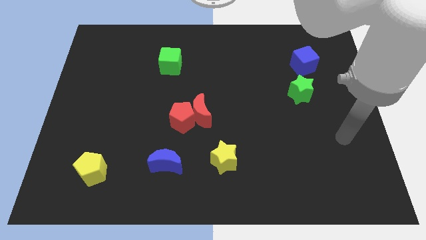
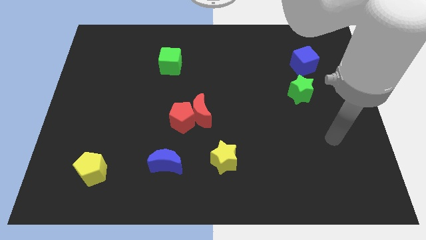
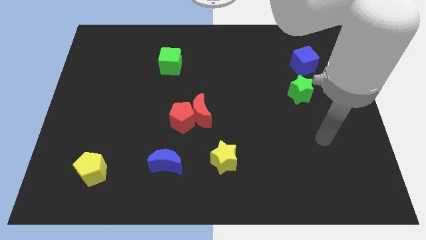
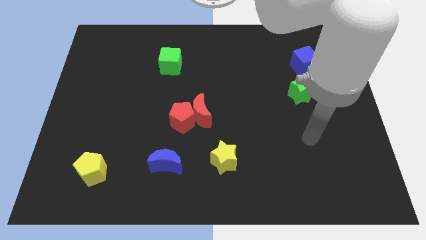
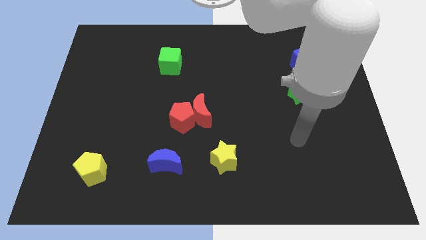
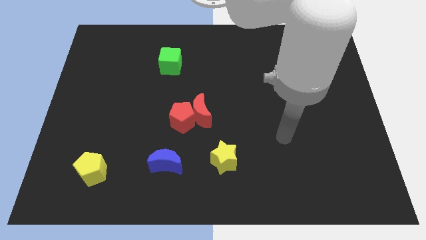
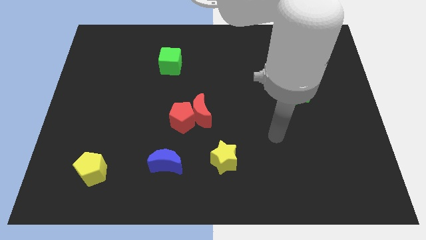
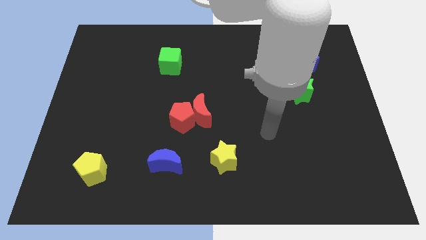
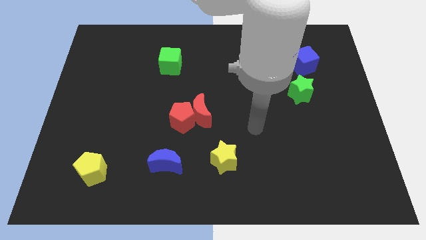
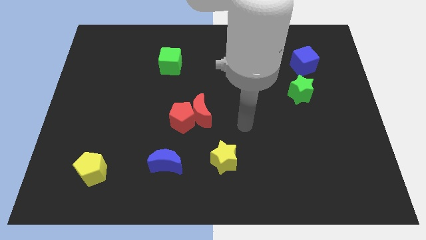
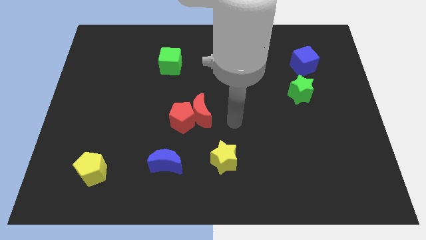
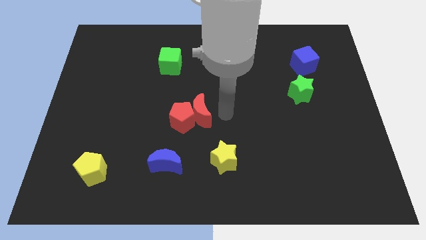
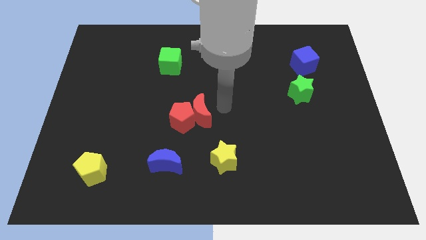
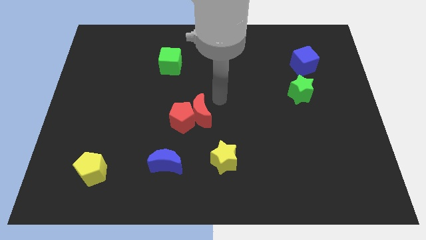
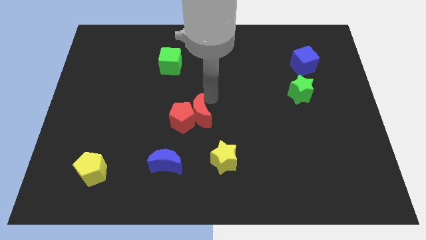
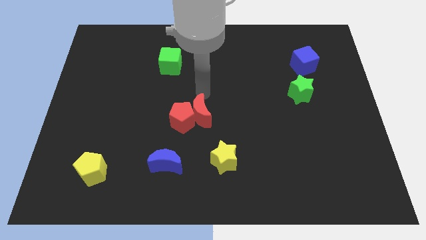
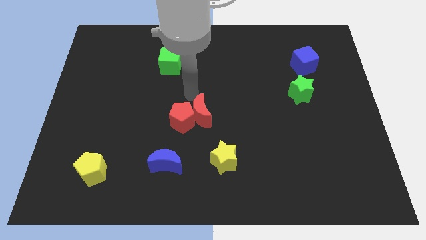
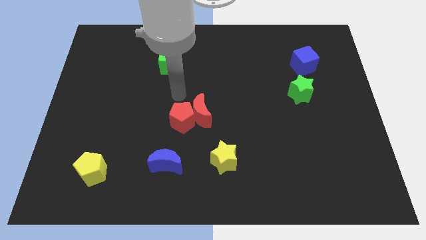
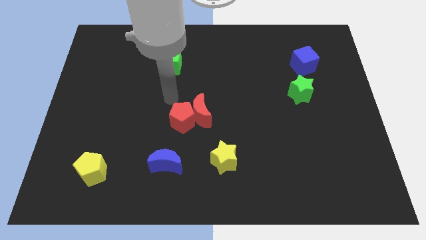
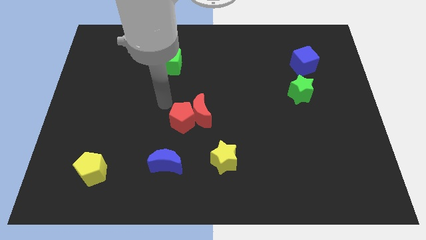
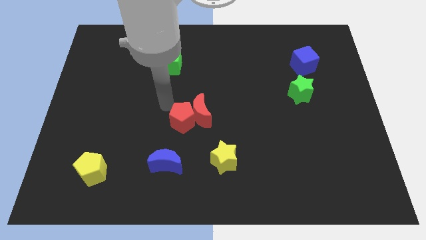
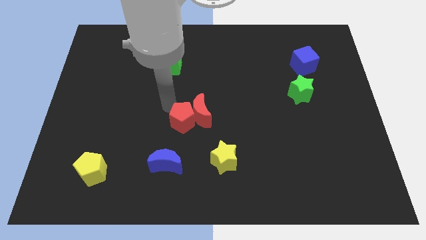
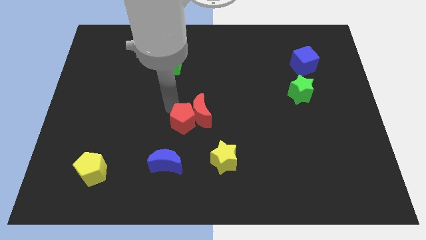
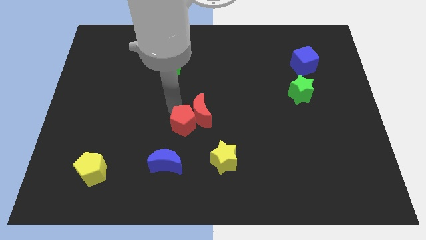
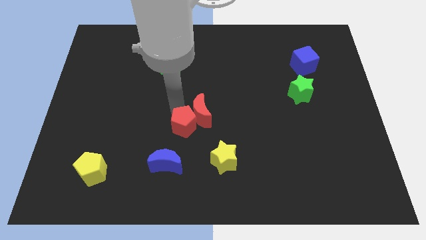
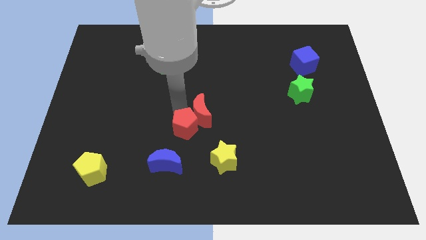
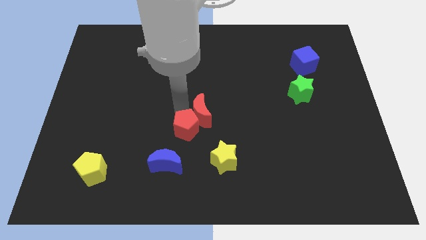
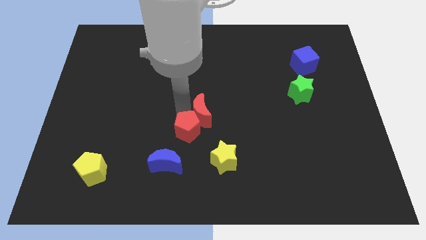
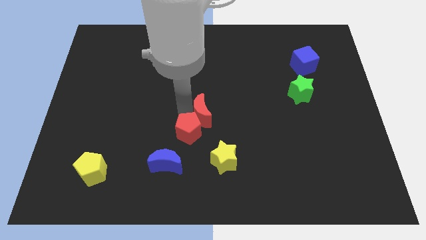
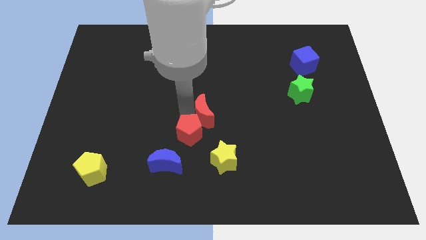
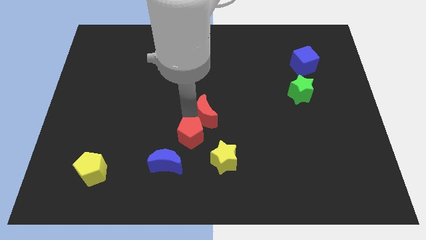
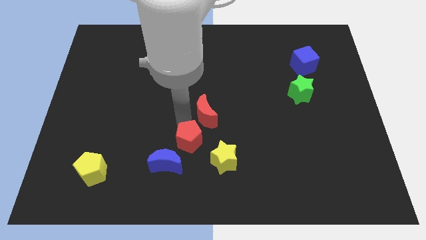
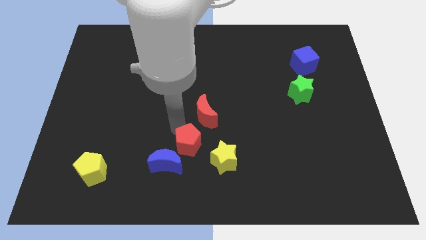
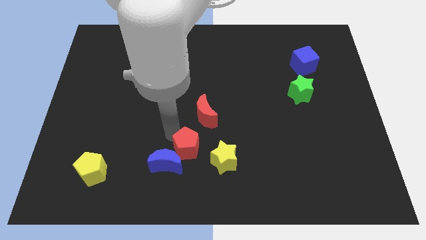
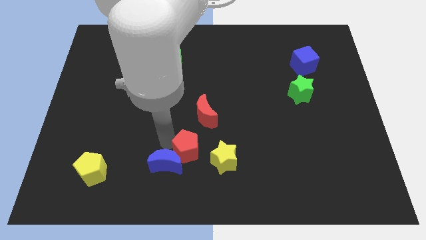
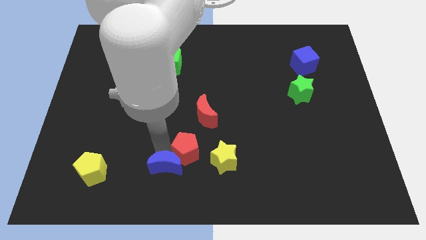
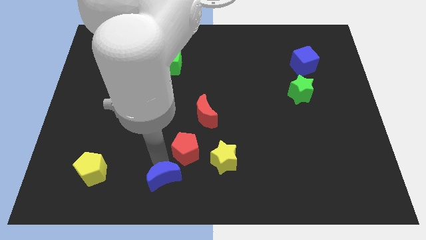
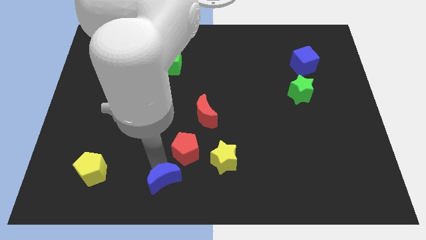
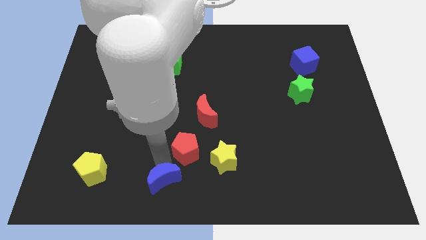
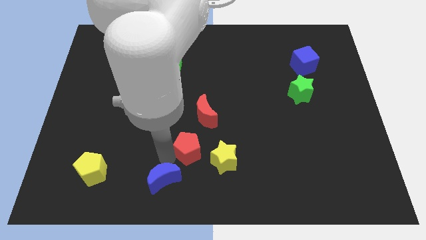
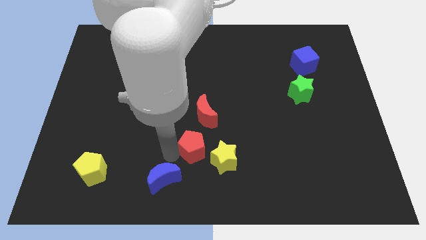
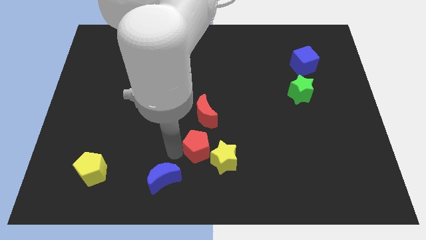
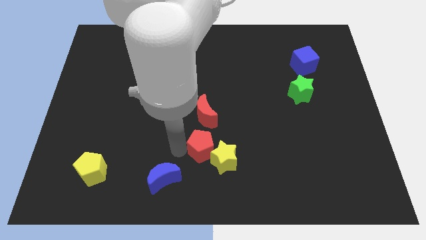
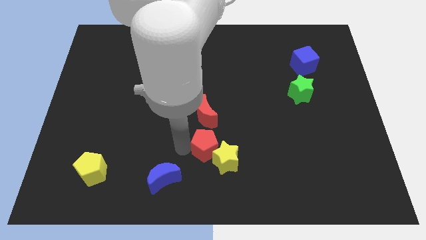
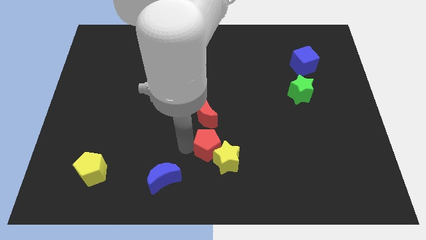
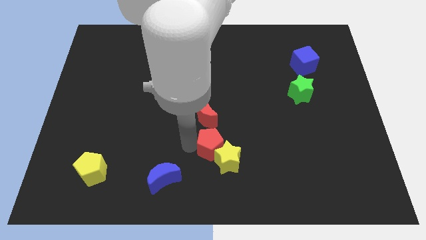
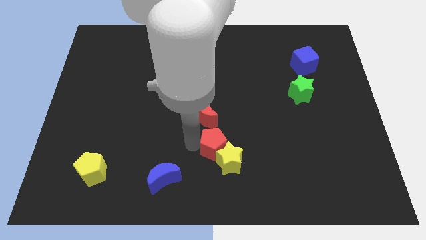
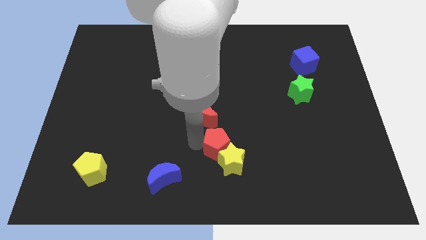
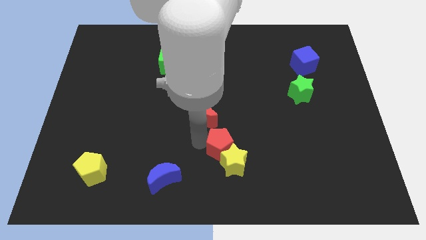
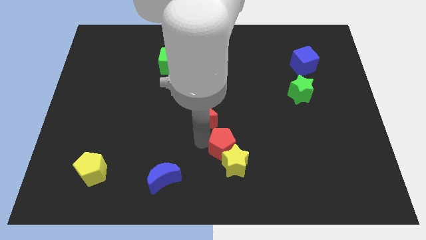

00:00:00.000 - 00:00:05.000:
slide the red pentagon right a bit

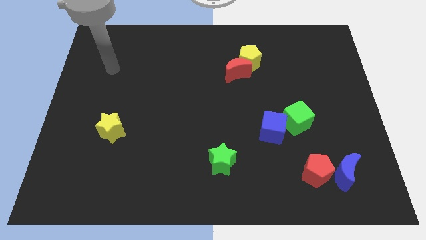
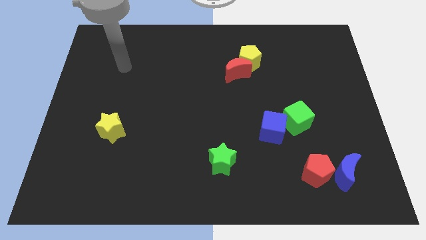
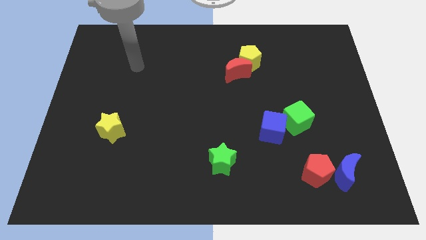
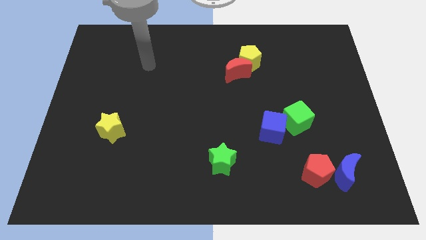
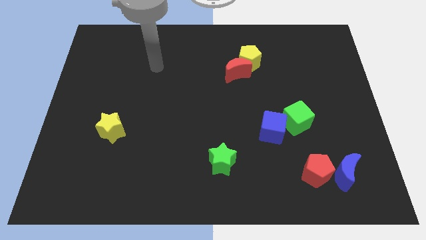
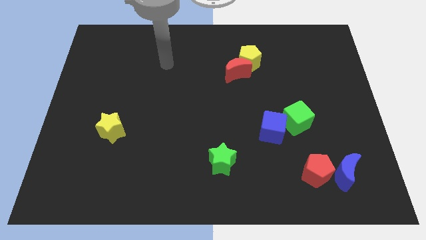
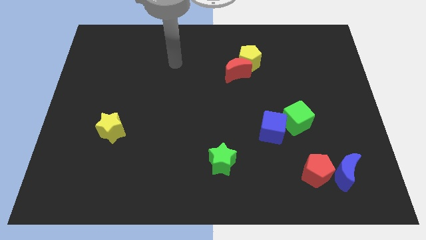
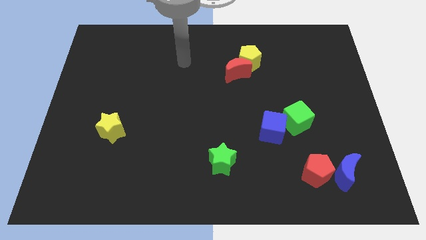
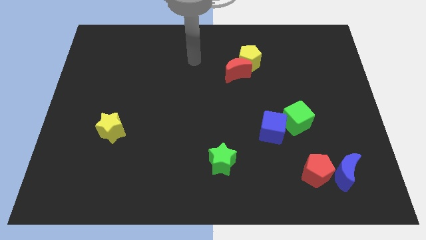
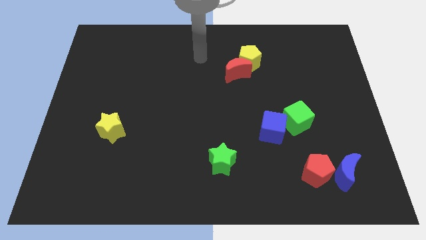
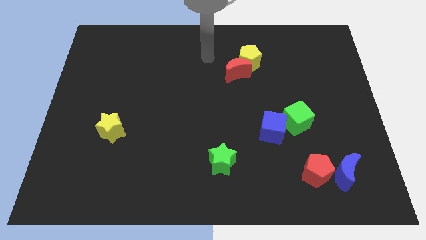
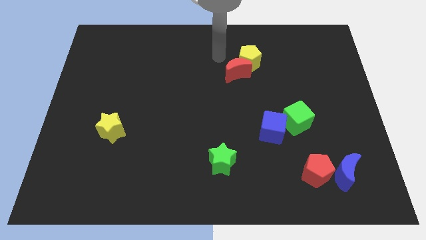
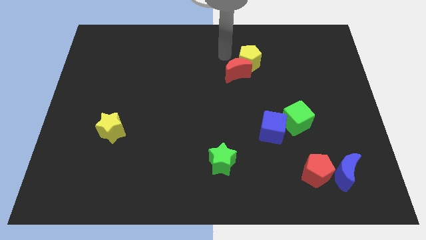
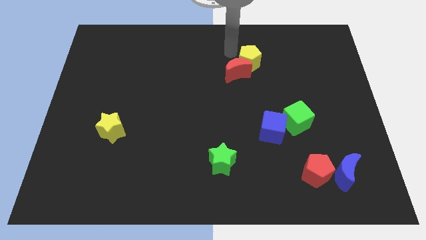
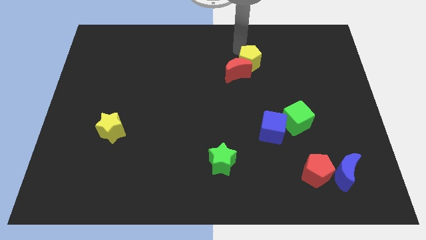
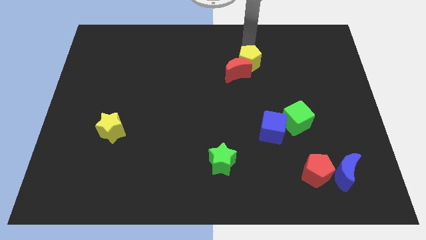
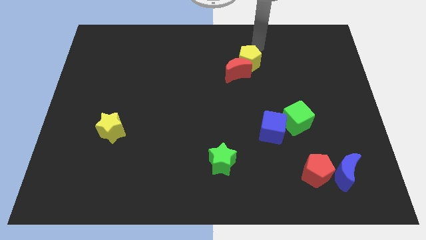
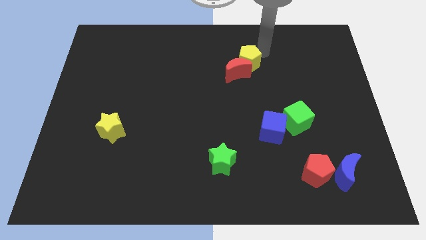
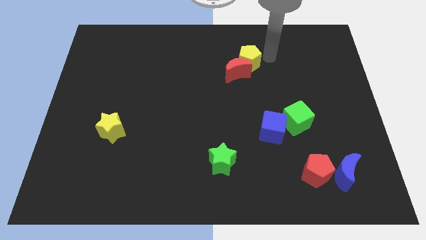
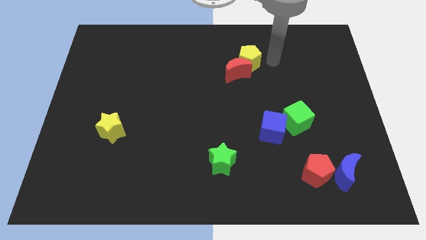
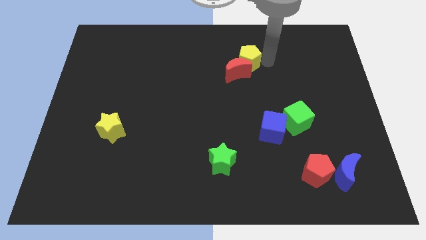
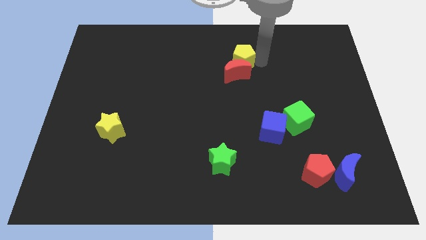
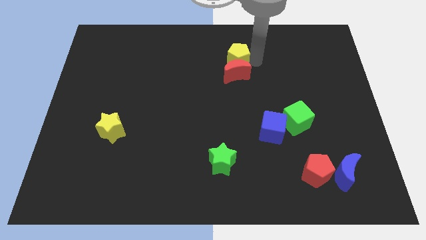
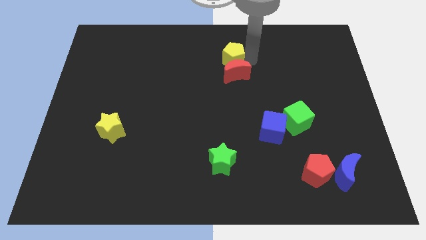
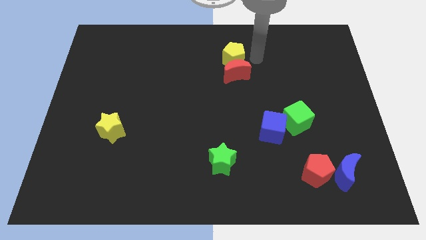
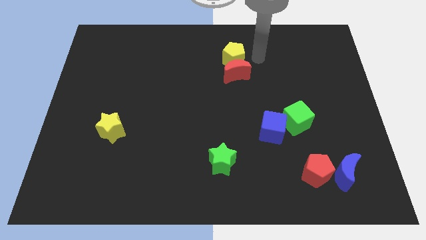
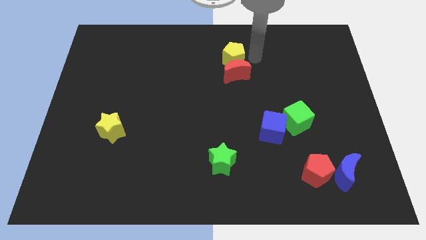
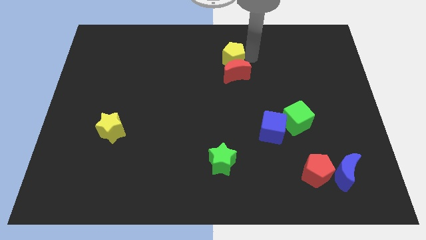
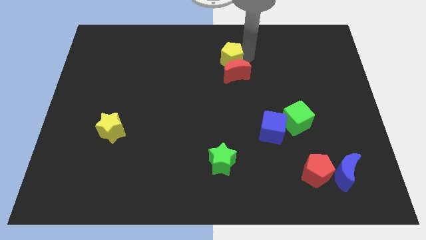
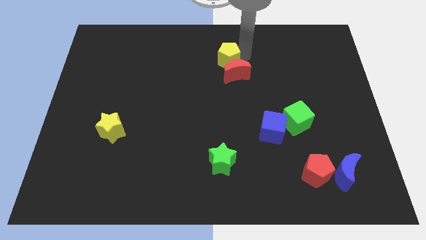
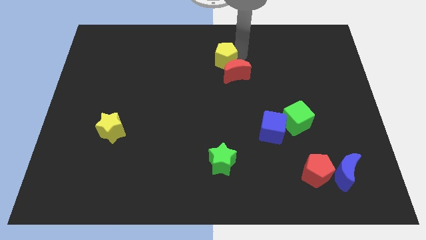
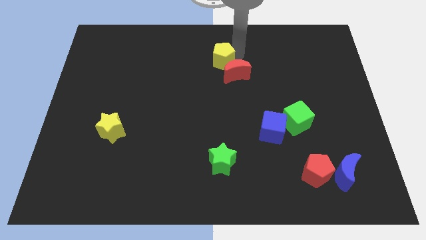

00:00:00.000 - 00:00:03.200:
slightly push the yellow pentagon to the left
